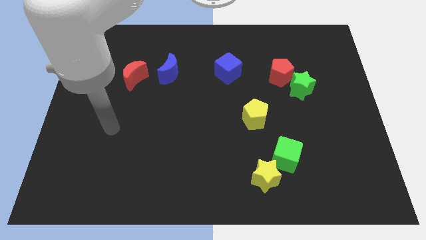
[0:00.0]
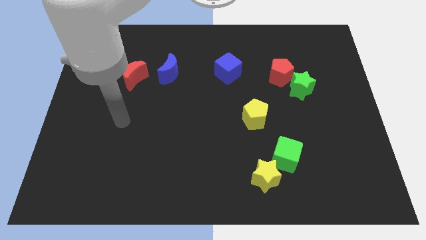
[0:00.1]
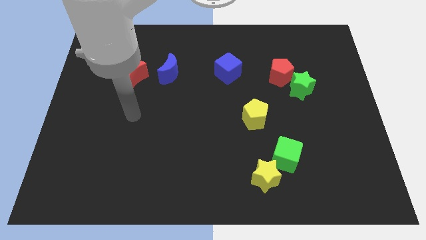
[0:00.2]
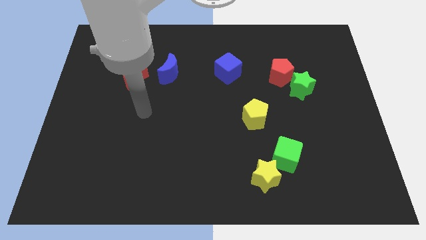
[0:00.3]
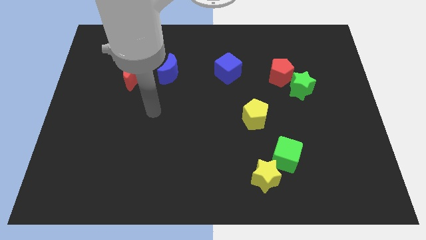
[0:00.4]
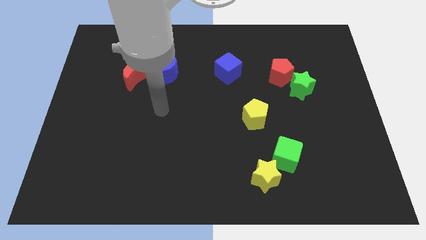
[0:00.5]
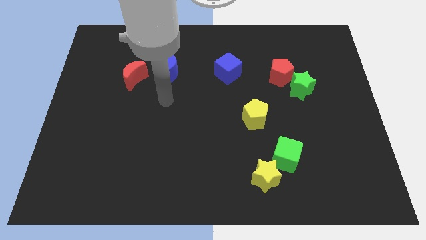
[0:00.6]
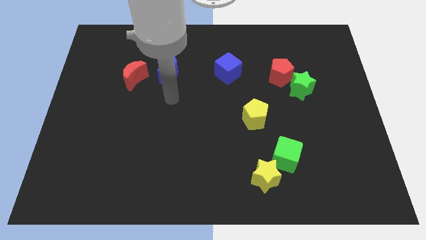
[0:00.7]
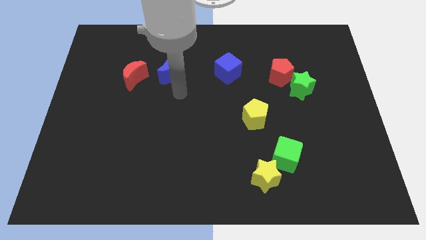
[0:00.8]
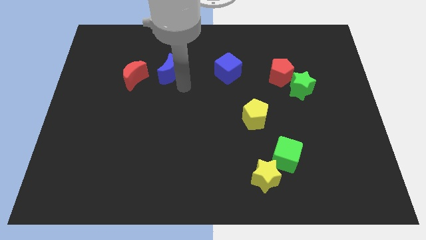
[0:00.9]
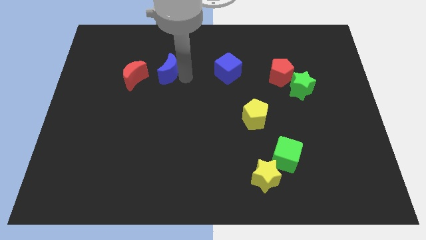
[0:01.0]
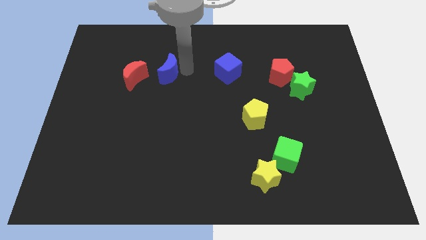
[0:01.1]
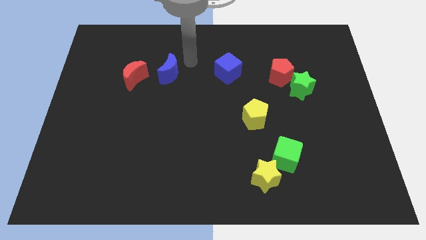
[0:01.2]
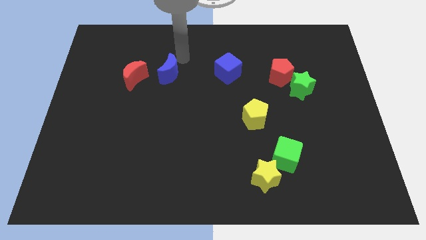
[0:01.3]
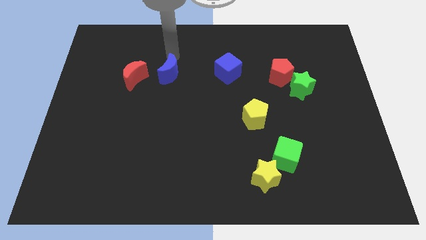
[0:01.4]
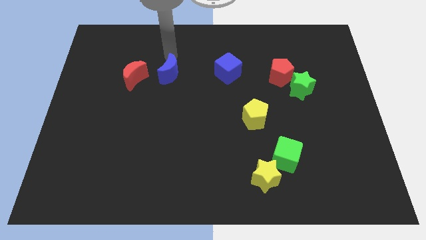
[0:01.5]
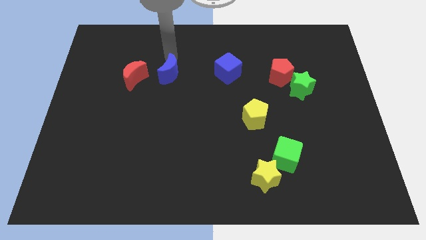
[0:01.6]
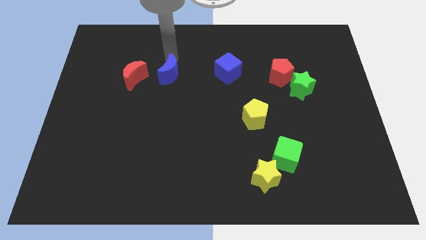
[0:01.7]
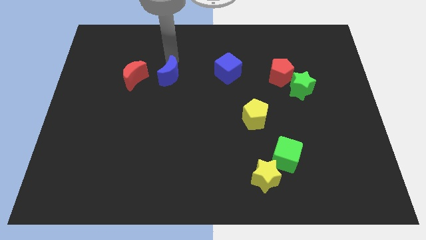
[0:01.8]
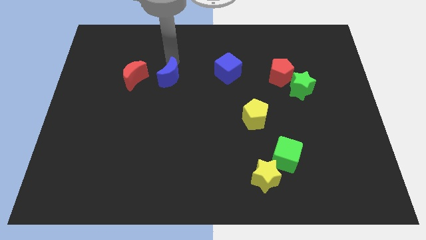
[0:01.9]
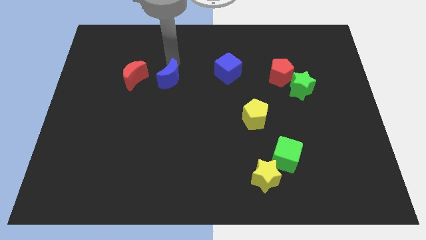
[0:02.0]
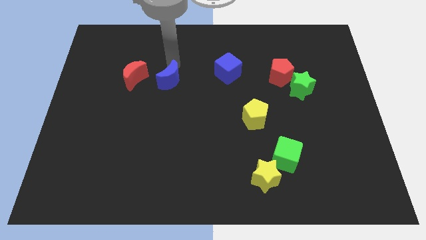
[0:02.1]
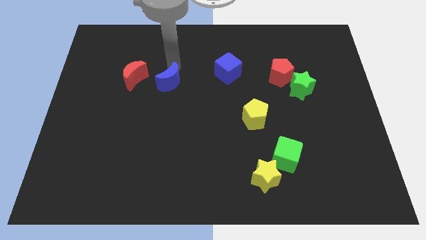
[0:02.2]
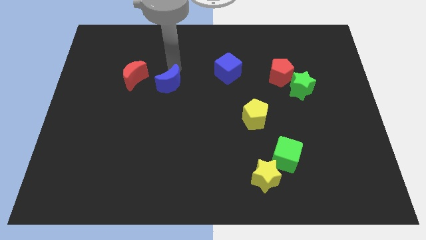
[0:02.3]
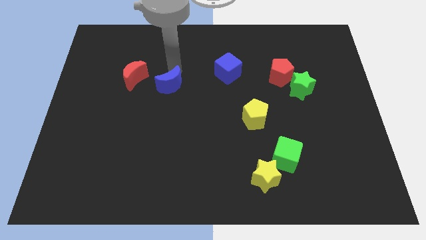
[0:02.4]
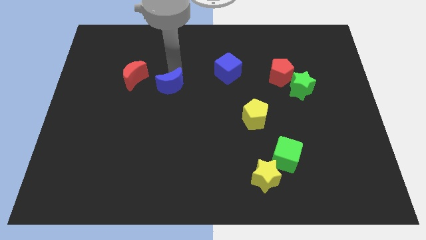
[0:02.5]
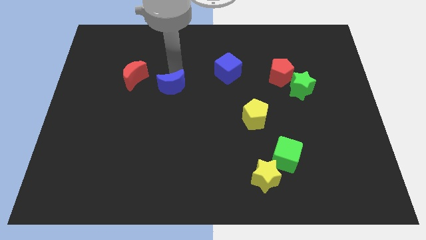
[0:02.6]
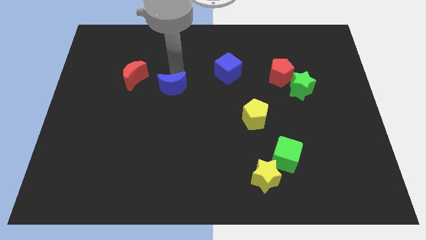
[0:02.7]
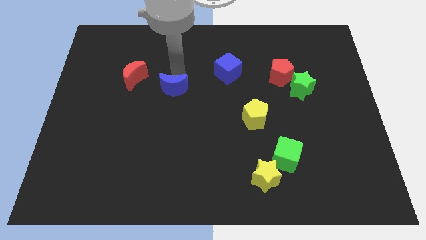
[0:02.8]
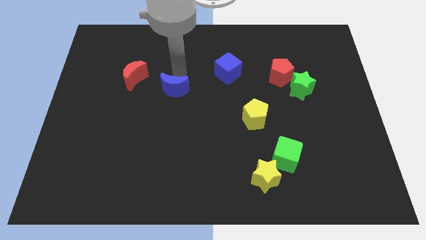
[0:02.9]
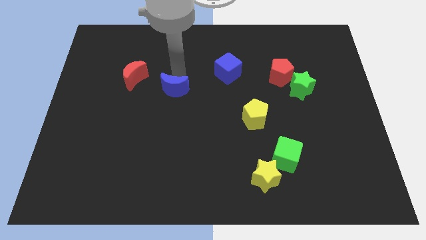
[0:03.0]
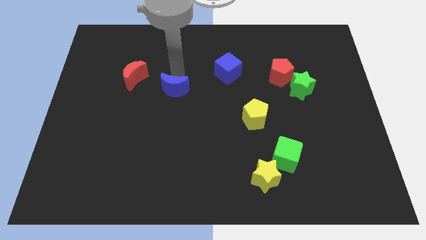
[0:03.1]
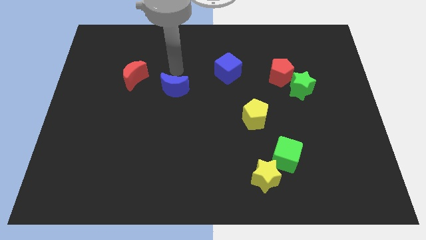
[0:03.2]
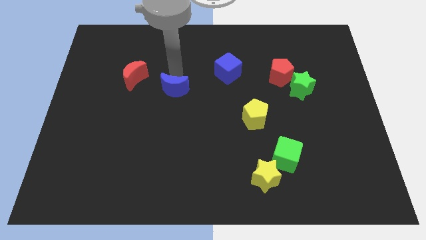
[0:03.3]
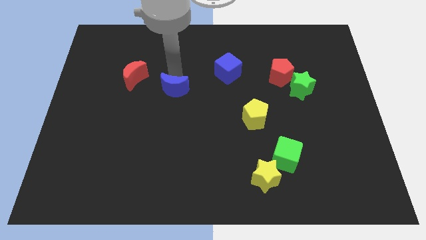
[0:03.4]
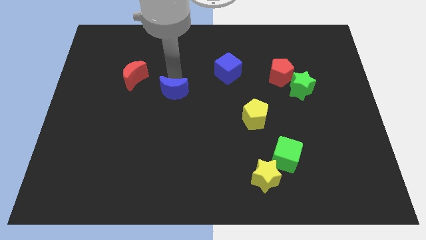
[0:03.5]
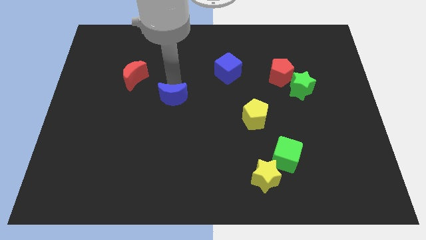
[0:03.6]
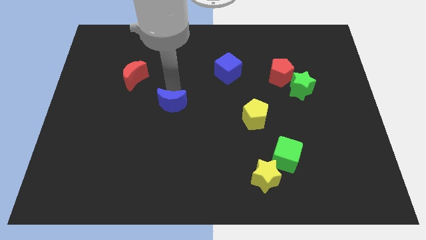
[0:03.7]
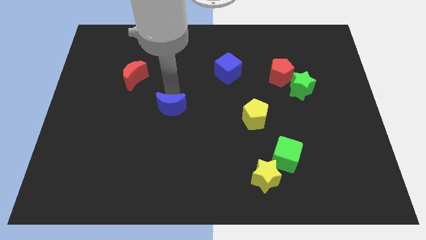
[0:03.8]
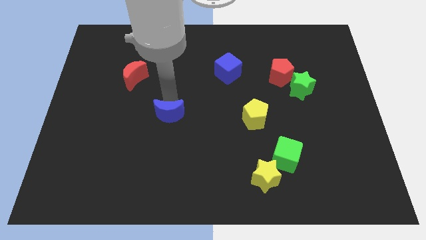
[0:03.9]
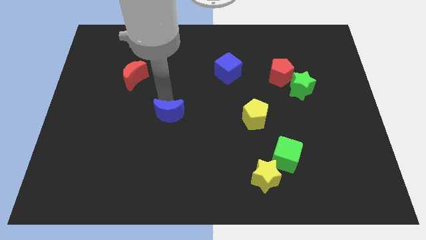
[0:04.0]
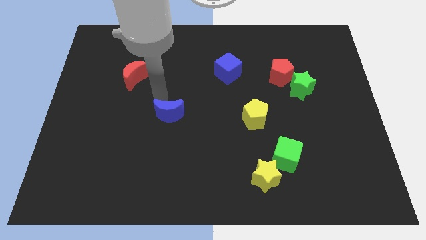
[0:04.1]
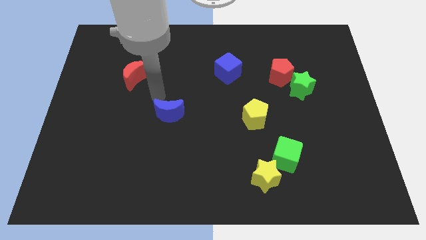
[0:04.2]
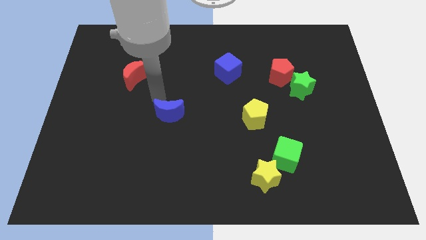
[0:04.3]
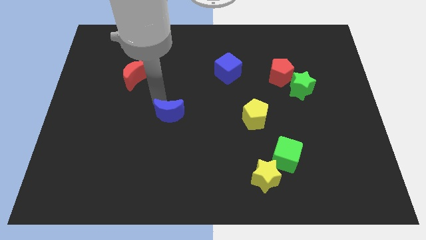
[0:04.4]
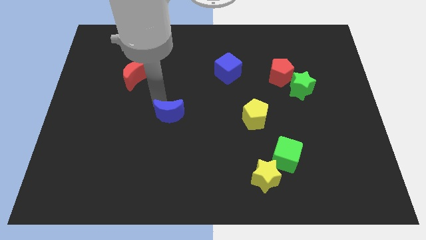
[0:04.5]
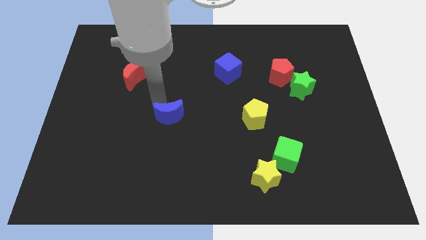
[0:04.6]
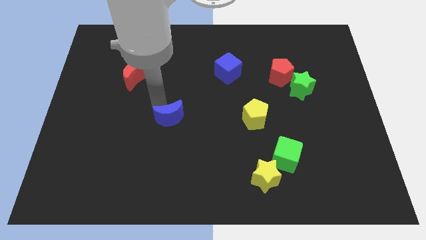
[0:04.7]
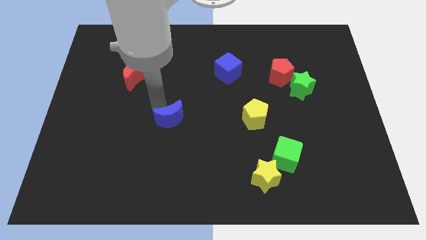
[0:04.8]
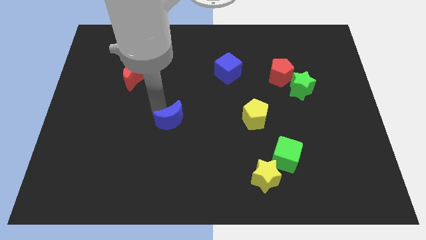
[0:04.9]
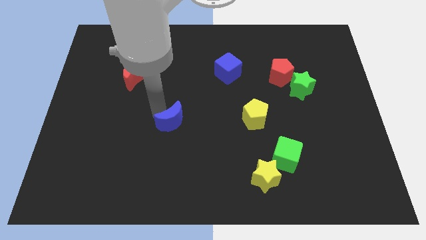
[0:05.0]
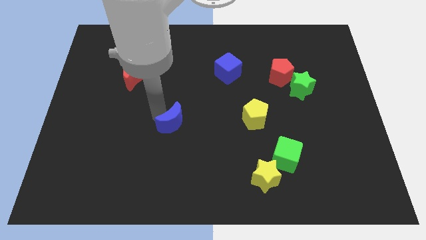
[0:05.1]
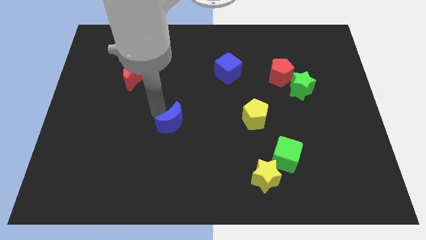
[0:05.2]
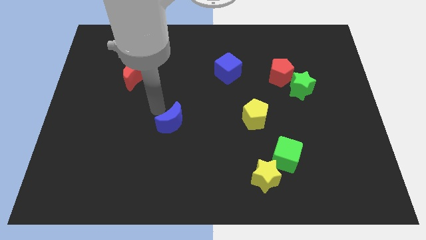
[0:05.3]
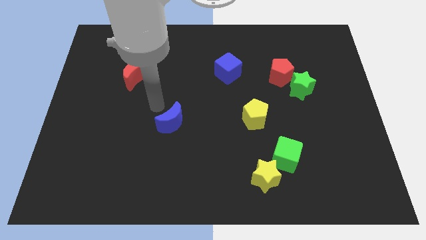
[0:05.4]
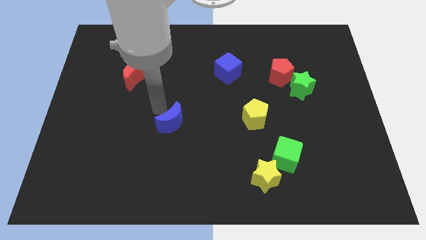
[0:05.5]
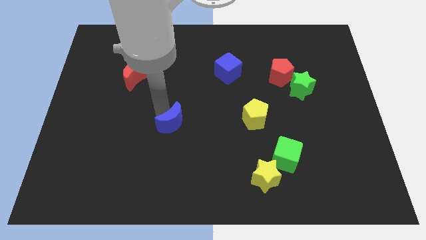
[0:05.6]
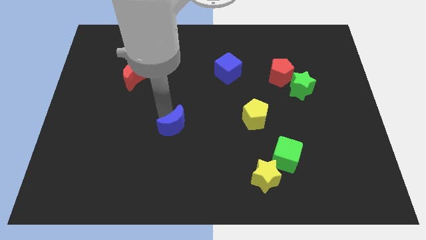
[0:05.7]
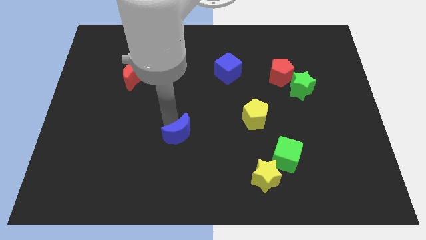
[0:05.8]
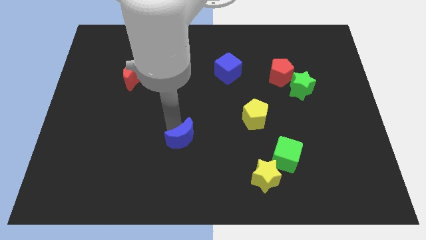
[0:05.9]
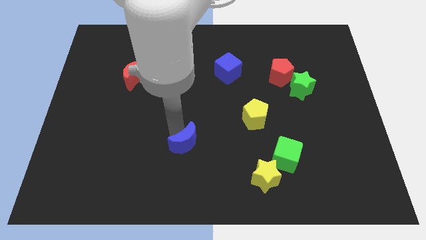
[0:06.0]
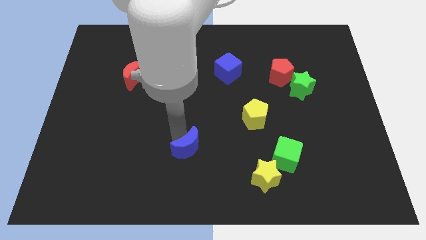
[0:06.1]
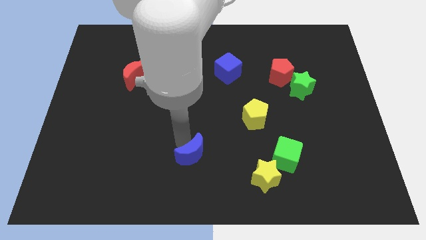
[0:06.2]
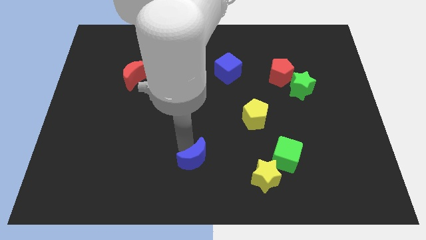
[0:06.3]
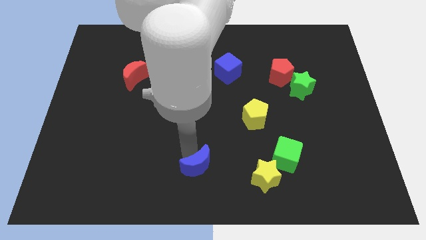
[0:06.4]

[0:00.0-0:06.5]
push the blue moon to the left side of the yellow star
